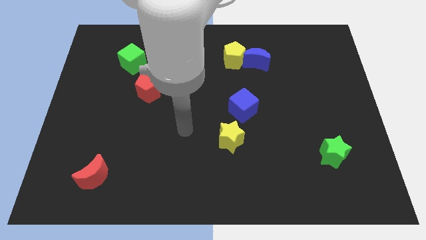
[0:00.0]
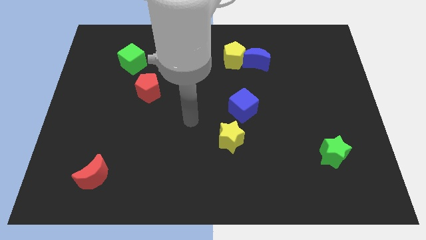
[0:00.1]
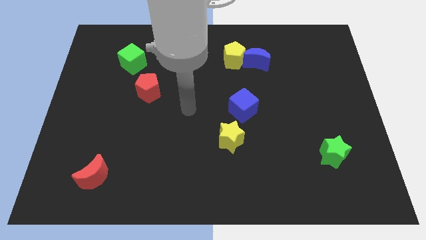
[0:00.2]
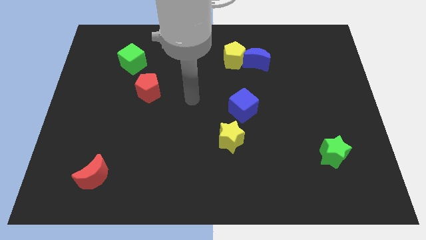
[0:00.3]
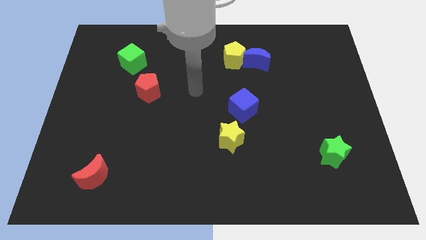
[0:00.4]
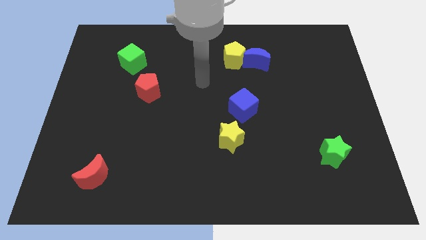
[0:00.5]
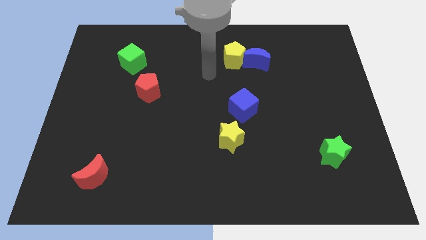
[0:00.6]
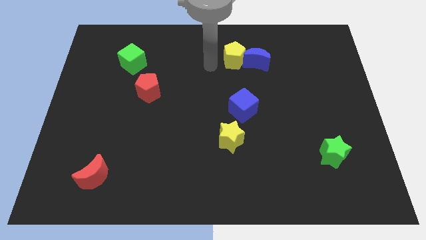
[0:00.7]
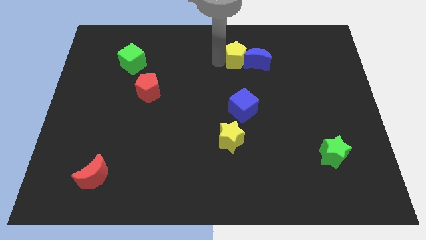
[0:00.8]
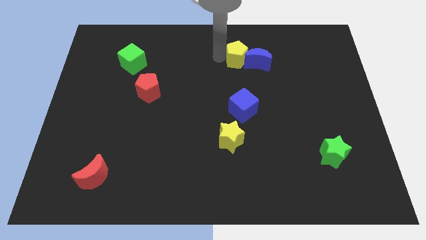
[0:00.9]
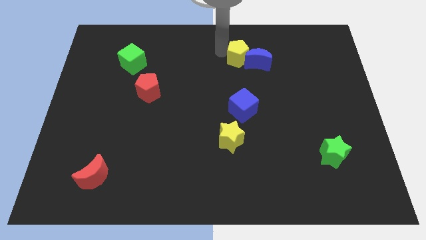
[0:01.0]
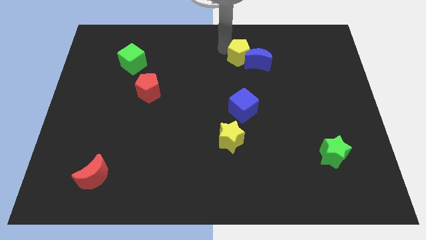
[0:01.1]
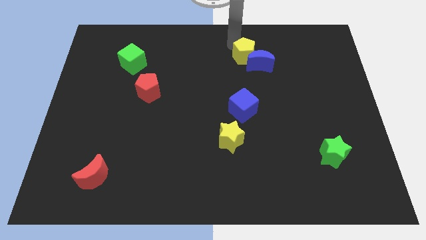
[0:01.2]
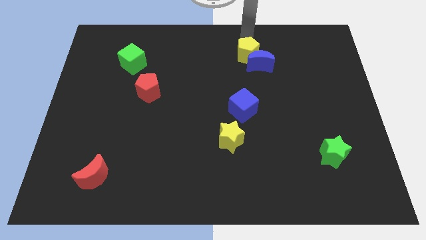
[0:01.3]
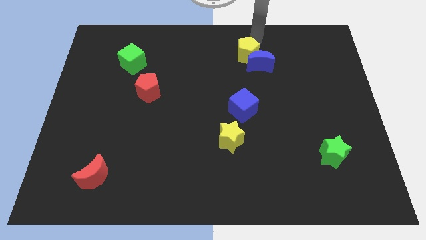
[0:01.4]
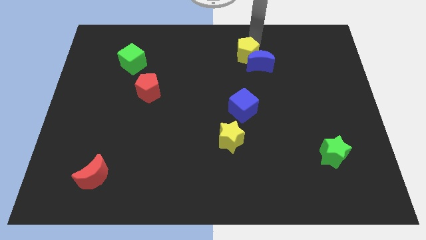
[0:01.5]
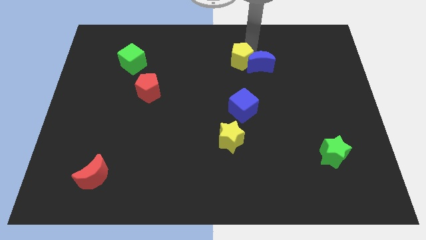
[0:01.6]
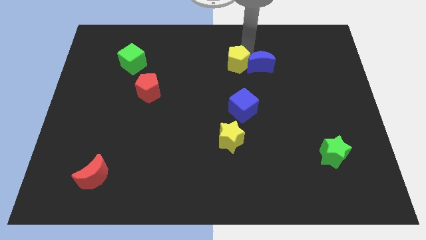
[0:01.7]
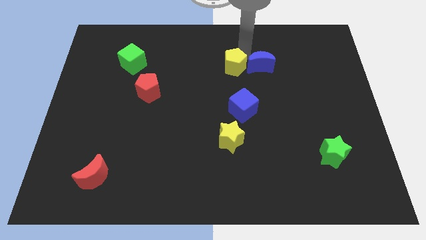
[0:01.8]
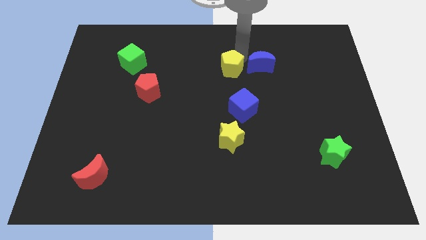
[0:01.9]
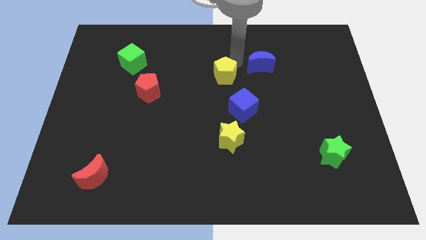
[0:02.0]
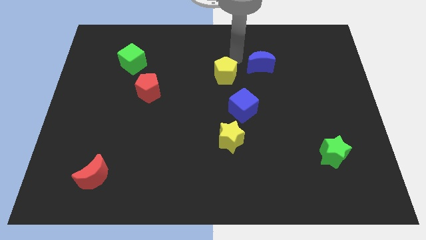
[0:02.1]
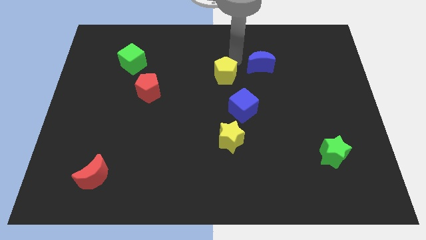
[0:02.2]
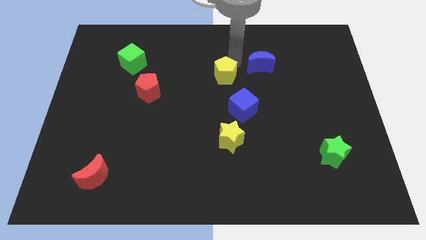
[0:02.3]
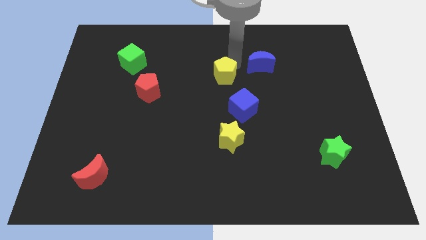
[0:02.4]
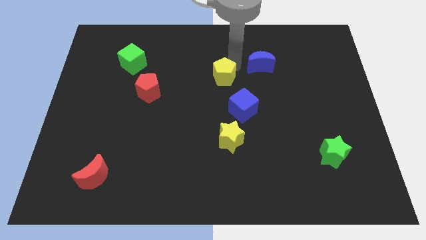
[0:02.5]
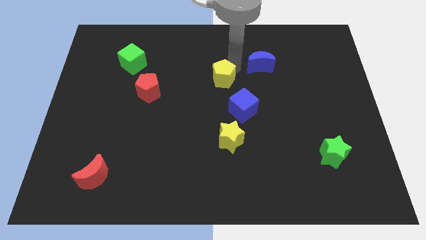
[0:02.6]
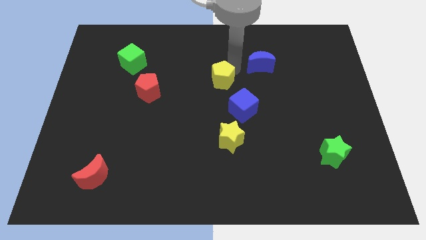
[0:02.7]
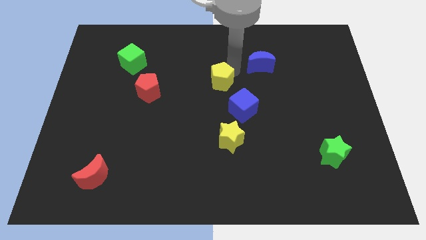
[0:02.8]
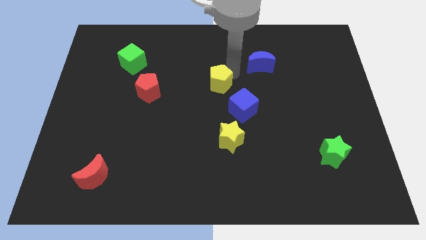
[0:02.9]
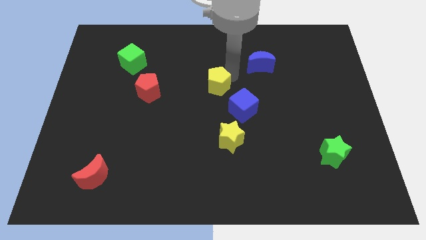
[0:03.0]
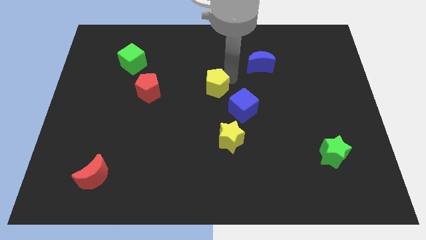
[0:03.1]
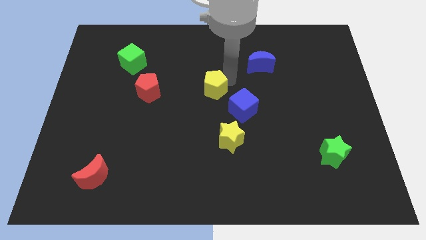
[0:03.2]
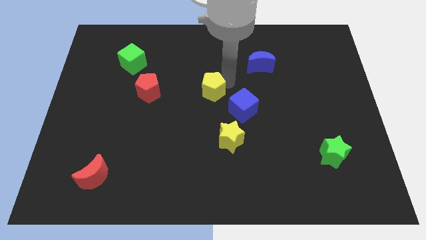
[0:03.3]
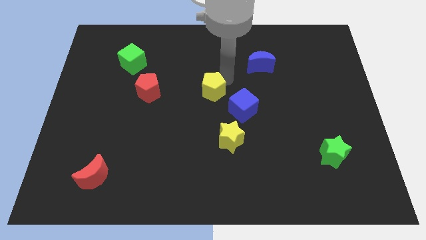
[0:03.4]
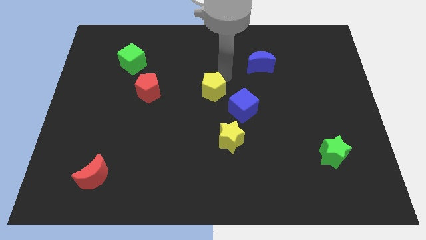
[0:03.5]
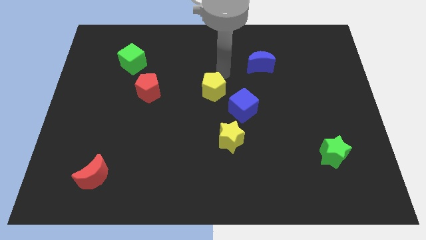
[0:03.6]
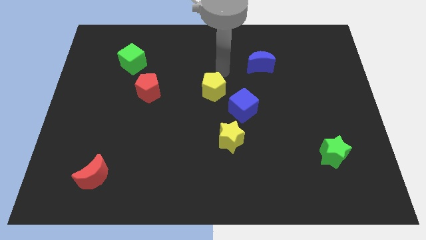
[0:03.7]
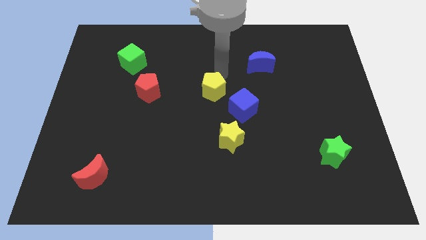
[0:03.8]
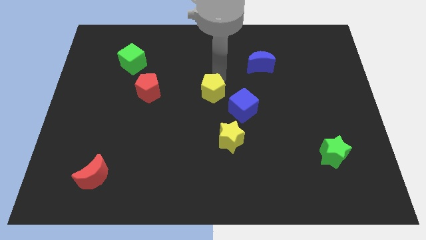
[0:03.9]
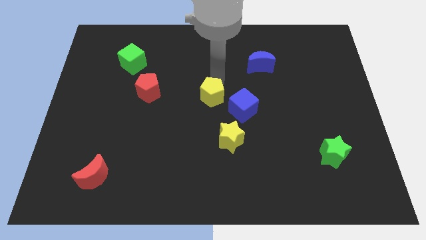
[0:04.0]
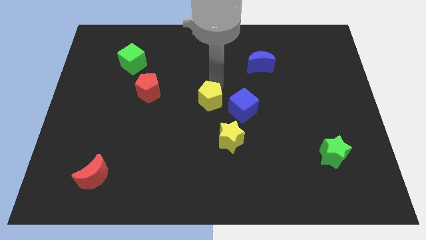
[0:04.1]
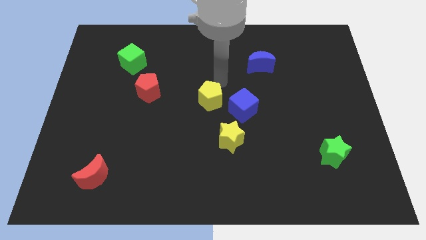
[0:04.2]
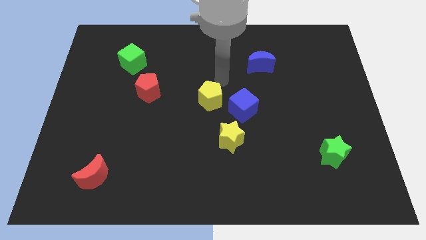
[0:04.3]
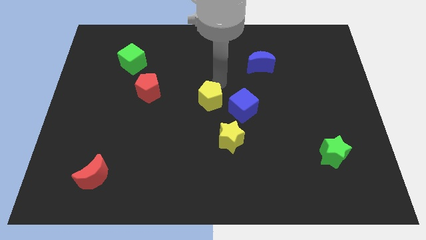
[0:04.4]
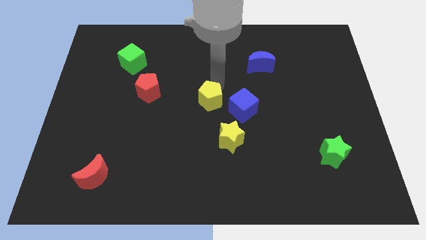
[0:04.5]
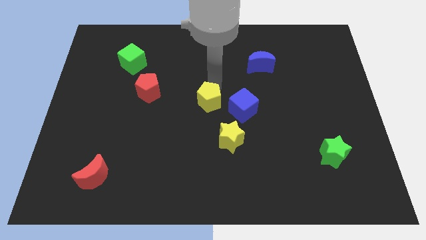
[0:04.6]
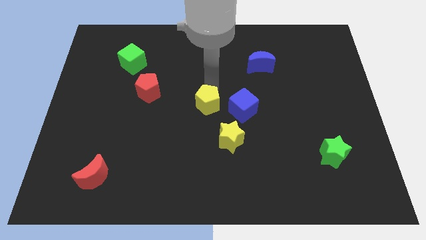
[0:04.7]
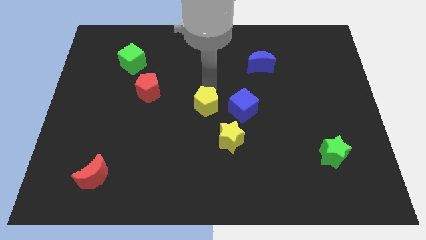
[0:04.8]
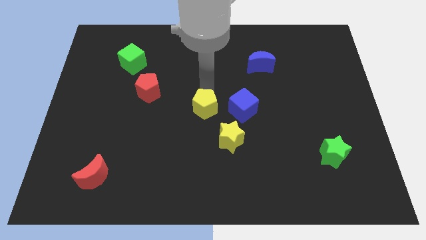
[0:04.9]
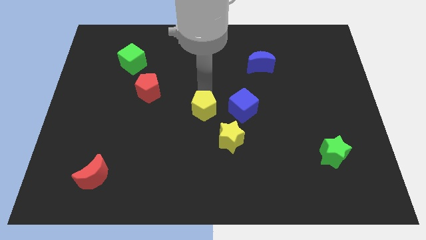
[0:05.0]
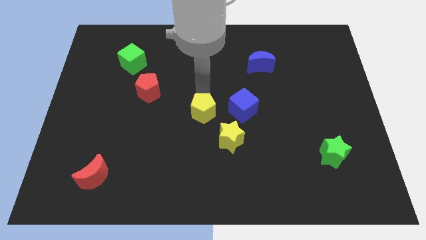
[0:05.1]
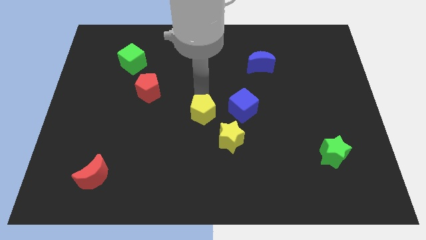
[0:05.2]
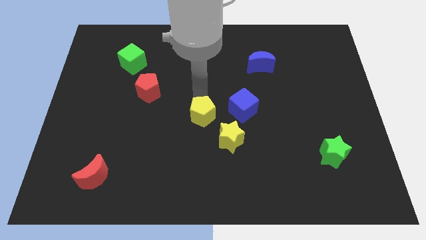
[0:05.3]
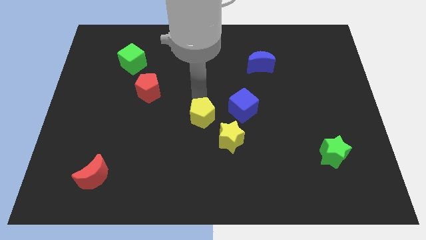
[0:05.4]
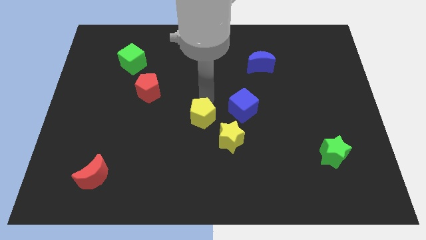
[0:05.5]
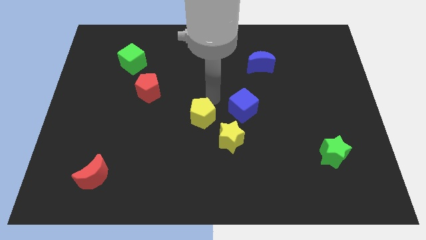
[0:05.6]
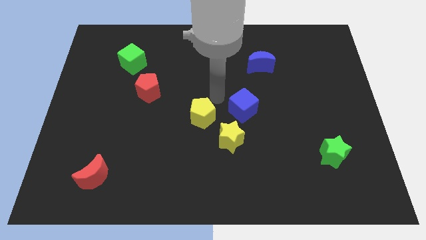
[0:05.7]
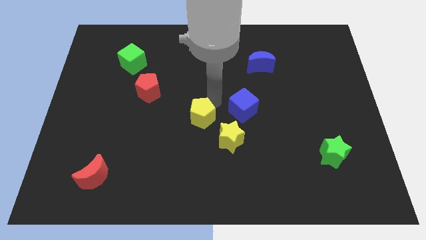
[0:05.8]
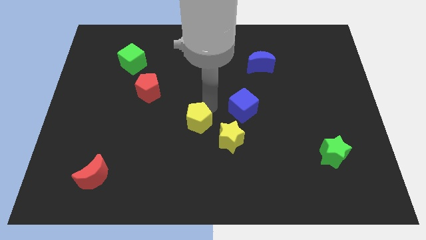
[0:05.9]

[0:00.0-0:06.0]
put the yellow pentagon to the left of the yellow star

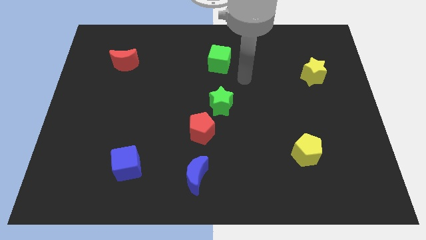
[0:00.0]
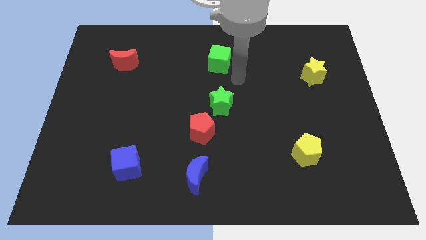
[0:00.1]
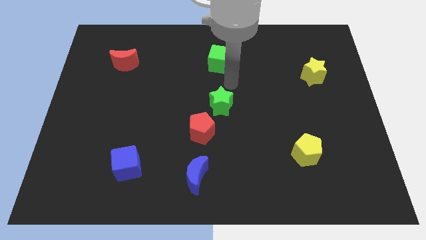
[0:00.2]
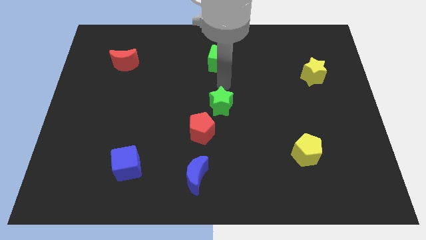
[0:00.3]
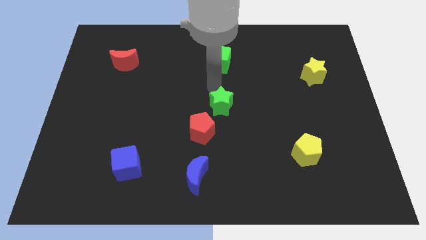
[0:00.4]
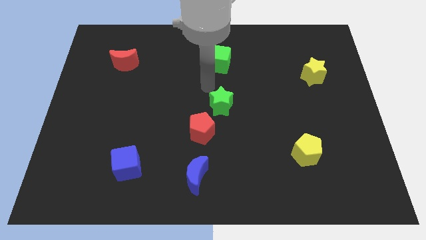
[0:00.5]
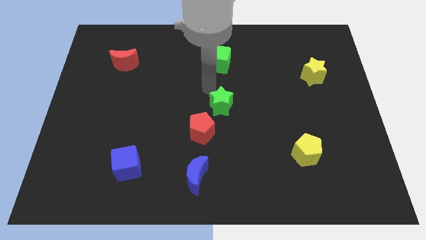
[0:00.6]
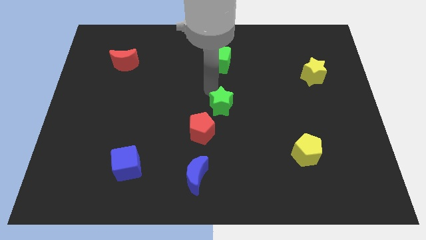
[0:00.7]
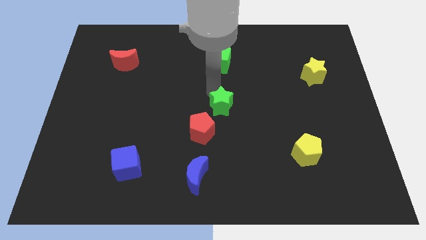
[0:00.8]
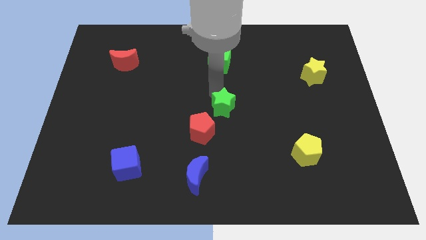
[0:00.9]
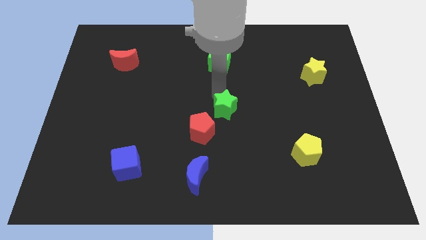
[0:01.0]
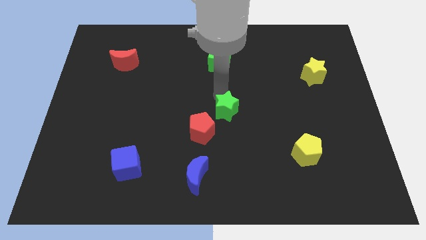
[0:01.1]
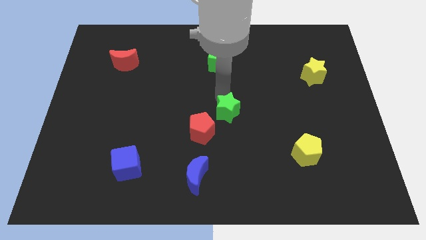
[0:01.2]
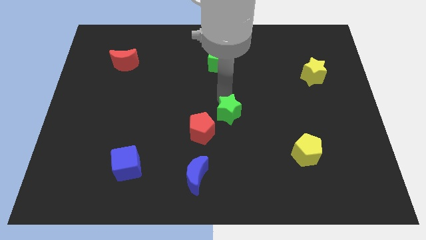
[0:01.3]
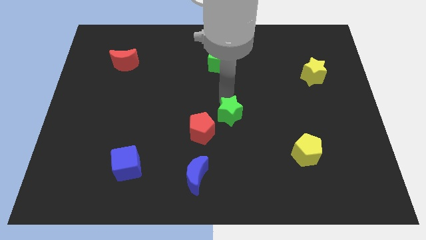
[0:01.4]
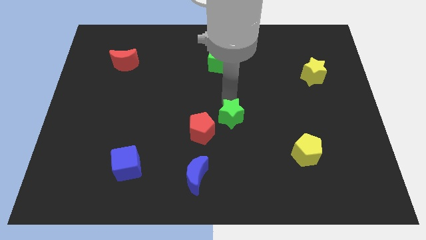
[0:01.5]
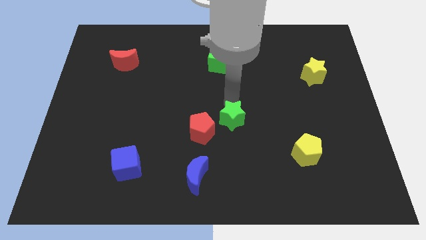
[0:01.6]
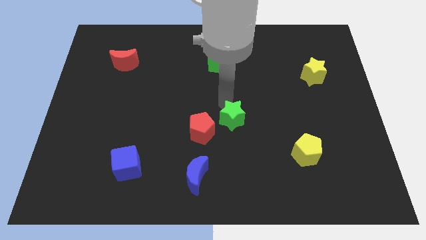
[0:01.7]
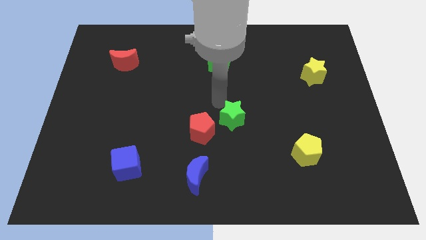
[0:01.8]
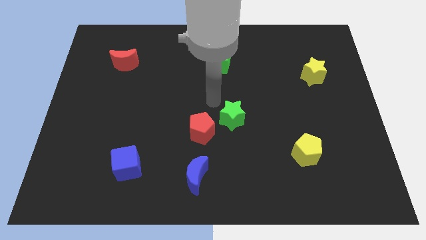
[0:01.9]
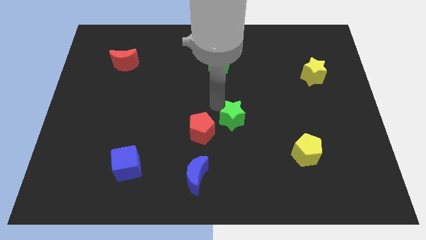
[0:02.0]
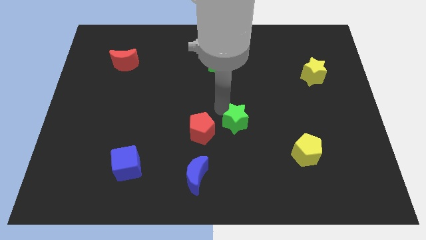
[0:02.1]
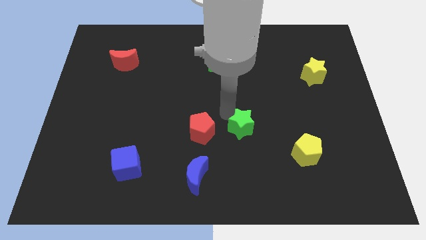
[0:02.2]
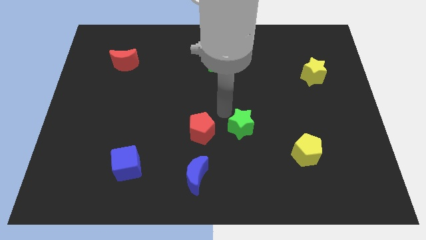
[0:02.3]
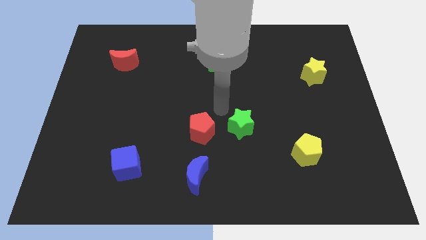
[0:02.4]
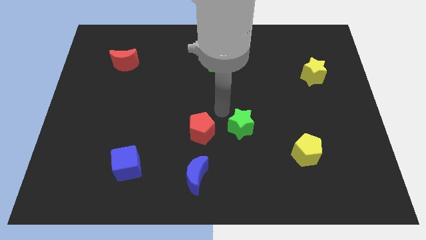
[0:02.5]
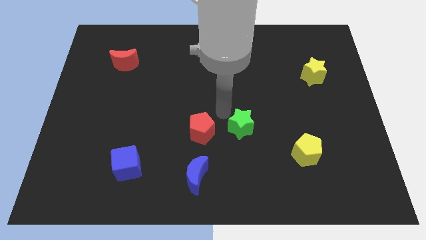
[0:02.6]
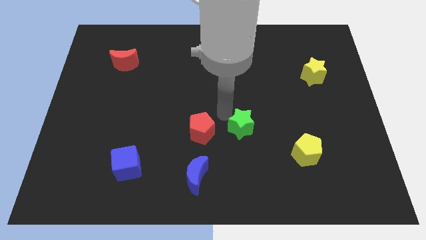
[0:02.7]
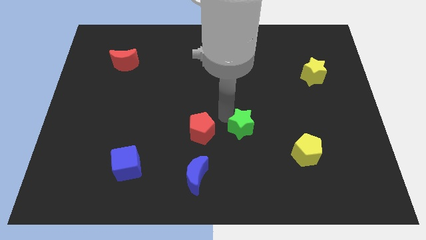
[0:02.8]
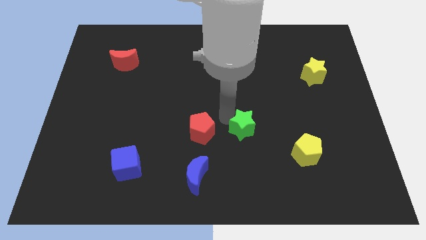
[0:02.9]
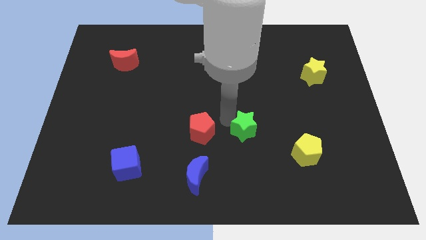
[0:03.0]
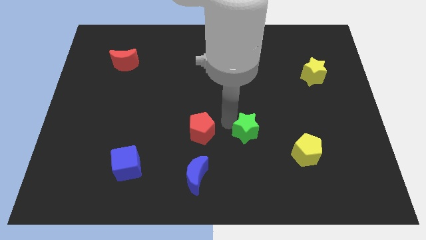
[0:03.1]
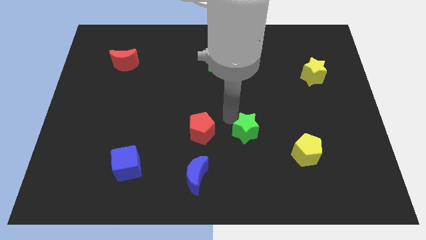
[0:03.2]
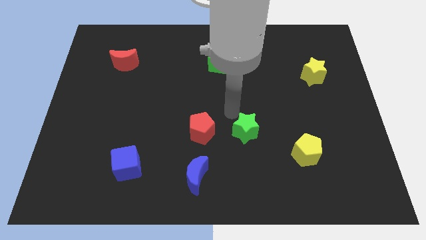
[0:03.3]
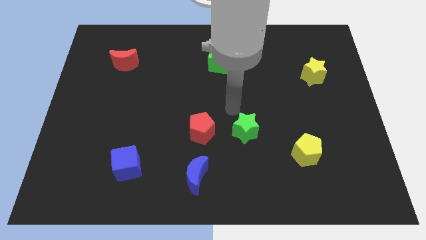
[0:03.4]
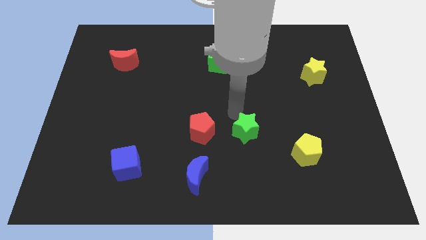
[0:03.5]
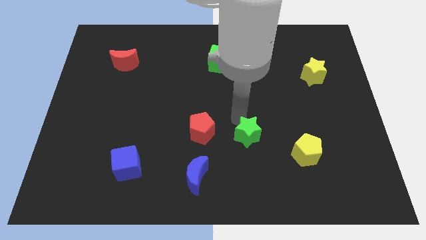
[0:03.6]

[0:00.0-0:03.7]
slide the green star to the left of the yellow pentagon
